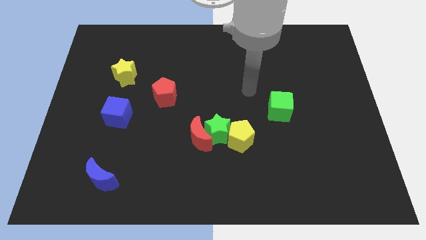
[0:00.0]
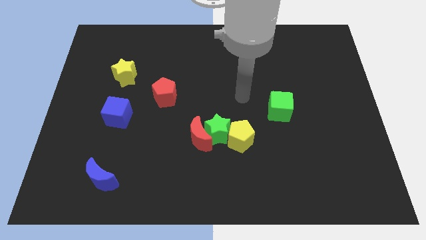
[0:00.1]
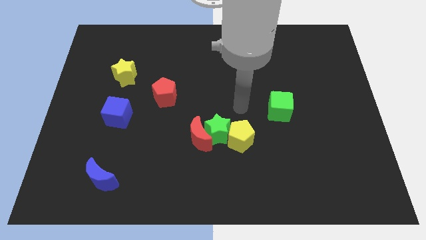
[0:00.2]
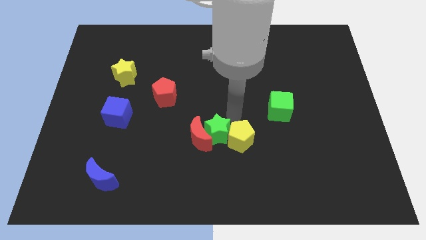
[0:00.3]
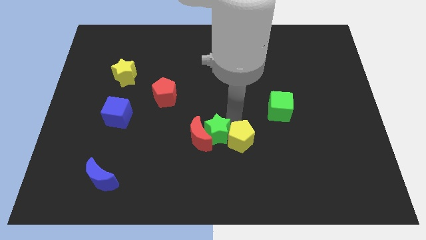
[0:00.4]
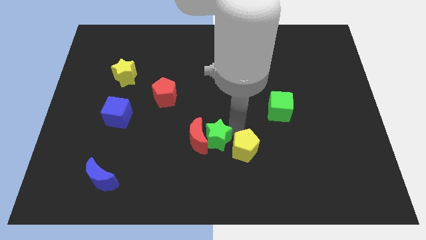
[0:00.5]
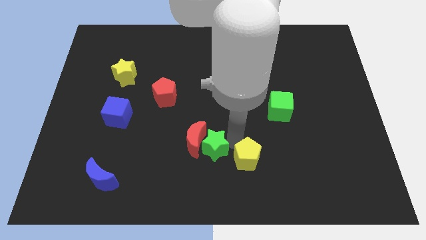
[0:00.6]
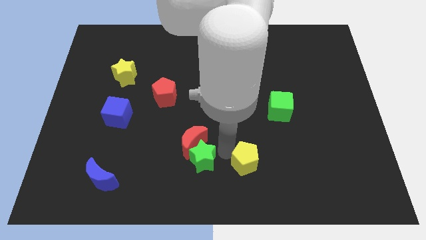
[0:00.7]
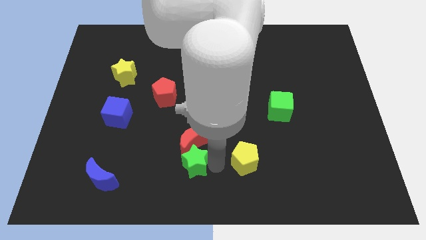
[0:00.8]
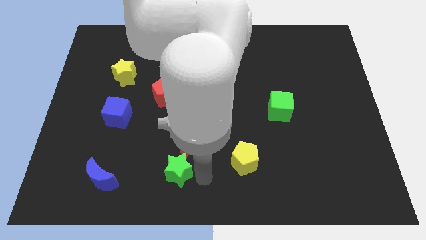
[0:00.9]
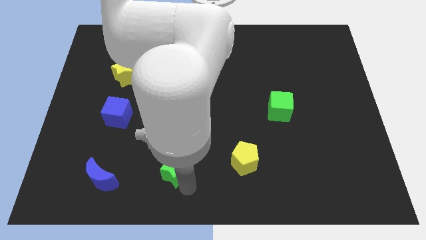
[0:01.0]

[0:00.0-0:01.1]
move the green star away from the red moon and yellow pentagon

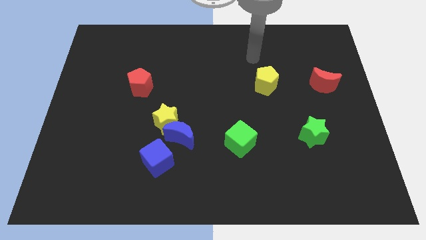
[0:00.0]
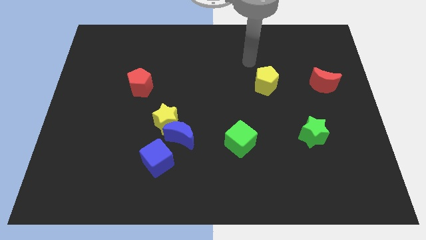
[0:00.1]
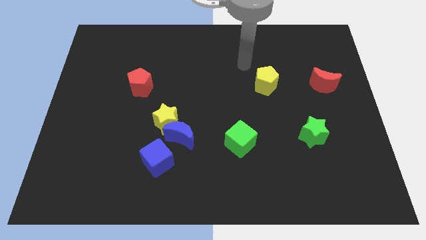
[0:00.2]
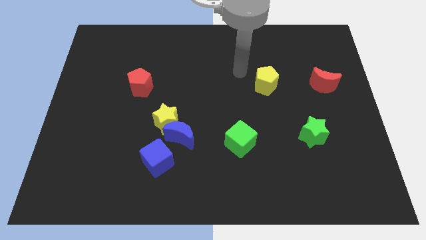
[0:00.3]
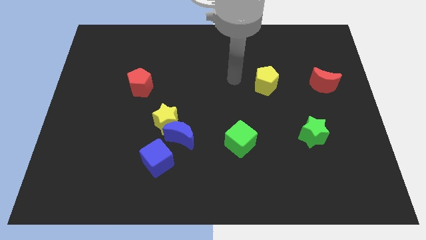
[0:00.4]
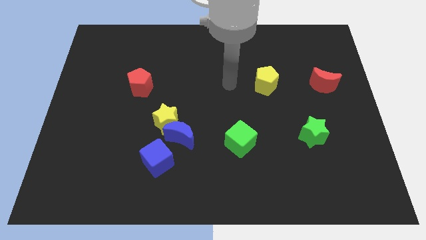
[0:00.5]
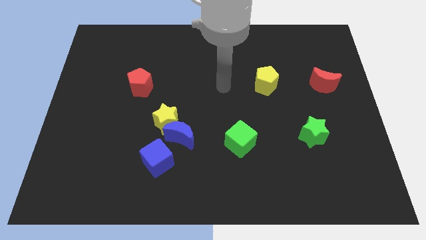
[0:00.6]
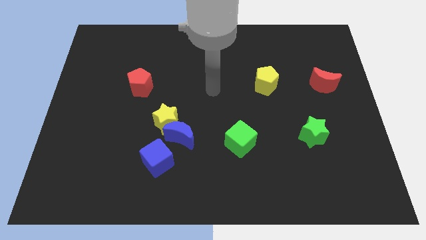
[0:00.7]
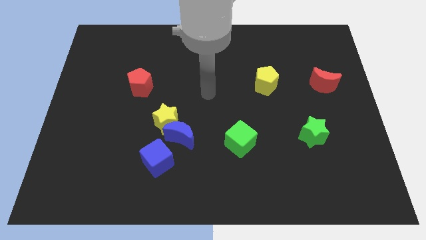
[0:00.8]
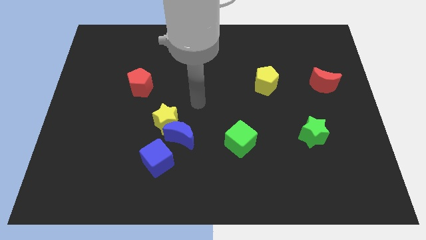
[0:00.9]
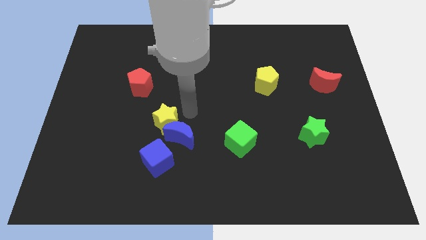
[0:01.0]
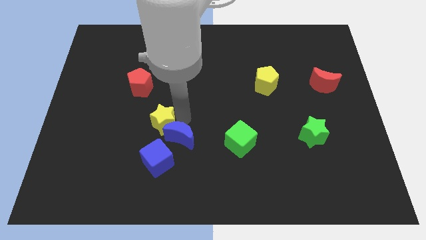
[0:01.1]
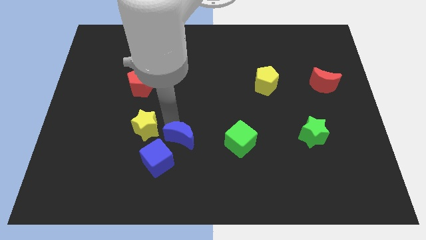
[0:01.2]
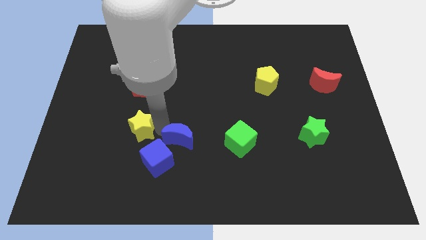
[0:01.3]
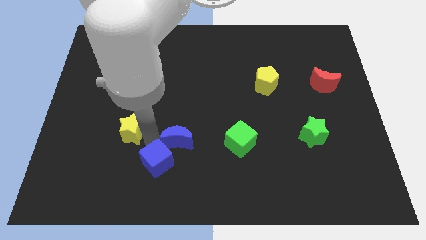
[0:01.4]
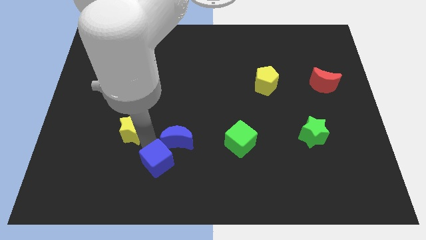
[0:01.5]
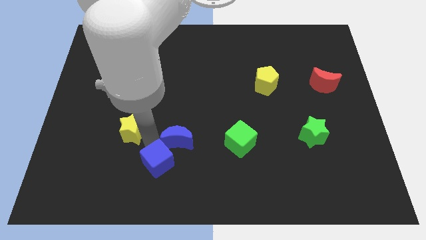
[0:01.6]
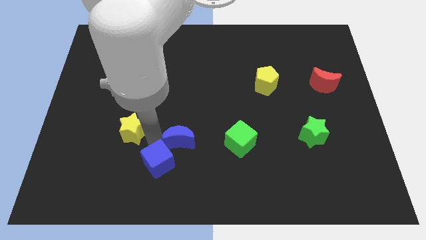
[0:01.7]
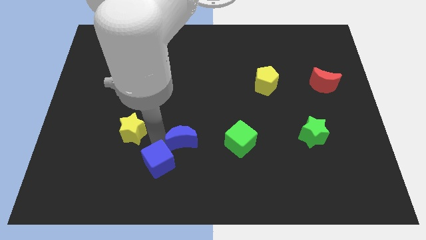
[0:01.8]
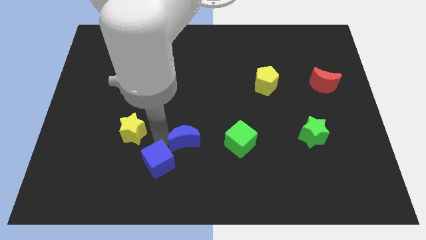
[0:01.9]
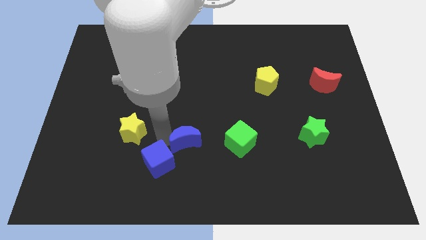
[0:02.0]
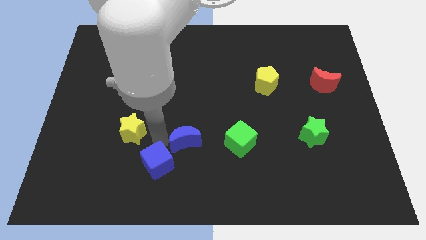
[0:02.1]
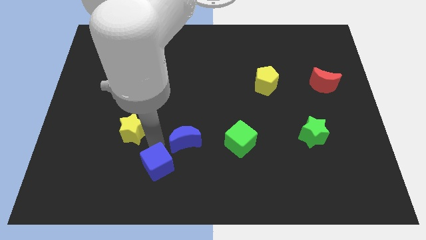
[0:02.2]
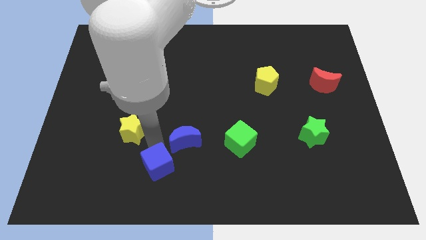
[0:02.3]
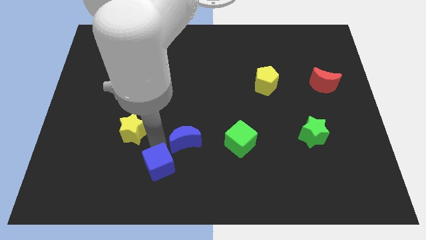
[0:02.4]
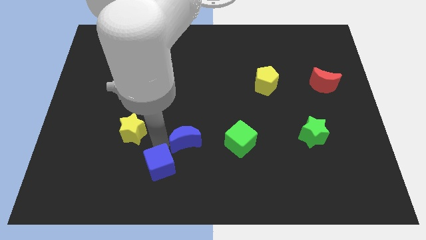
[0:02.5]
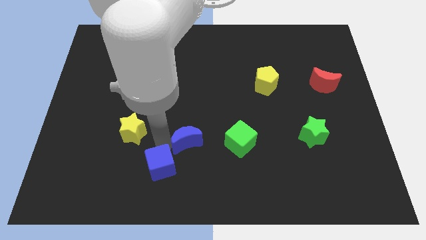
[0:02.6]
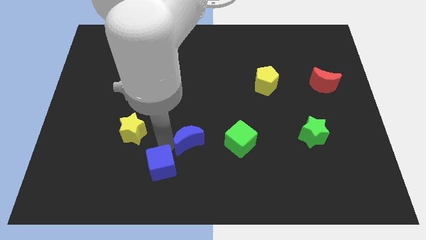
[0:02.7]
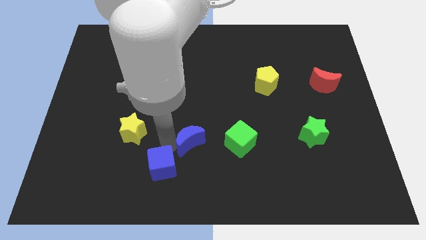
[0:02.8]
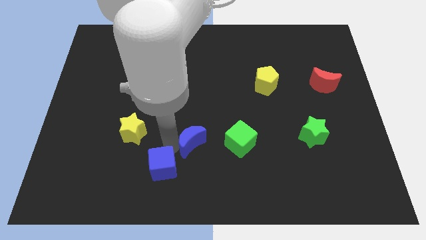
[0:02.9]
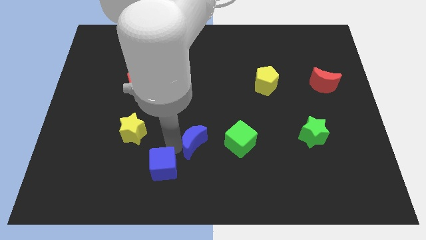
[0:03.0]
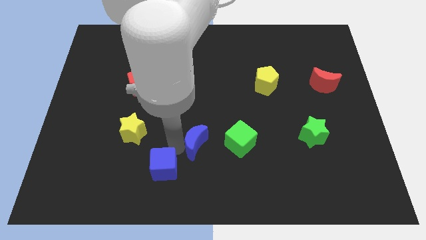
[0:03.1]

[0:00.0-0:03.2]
pull the blue moon apart from the yellow star and blue cube

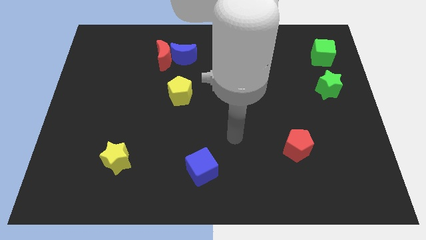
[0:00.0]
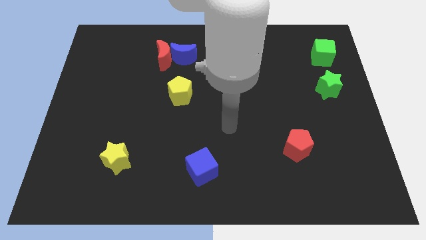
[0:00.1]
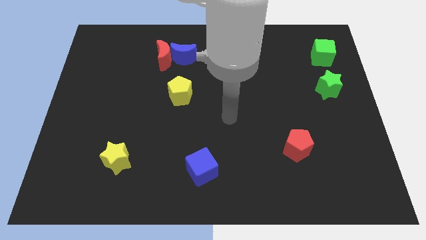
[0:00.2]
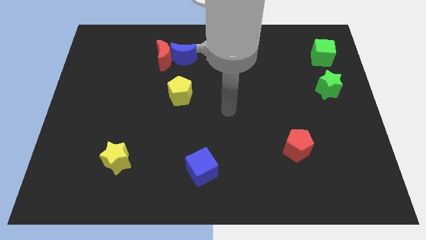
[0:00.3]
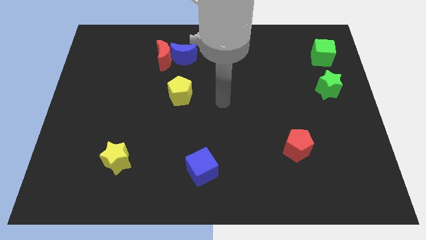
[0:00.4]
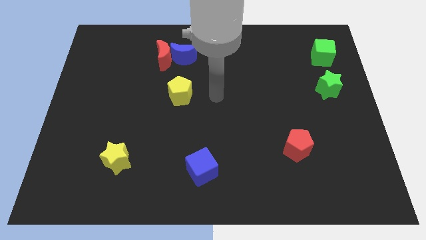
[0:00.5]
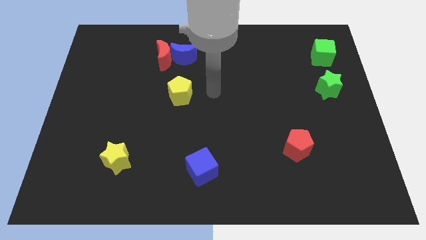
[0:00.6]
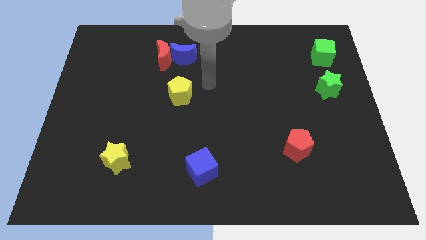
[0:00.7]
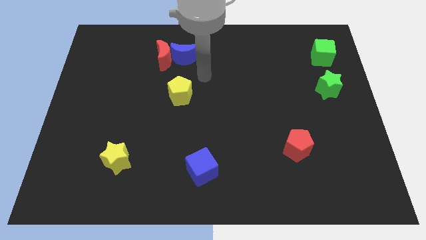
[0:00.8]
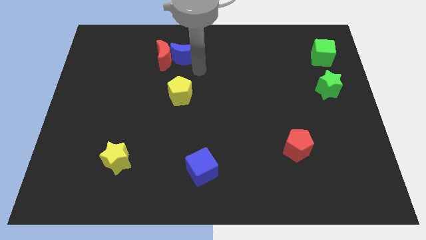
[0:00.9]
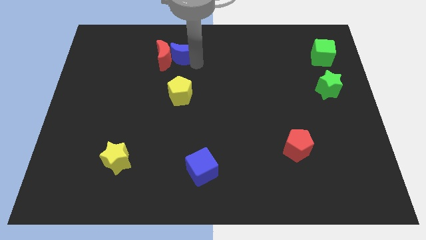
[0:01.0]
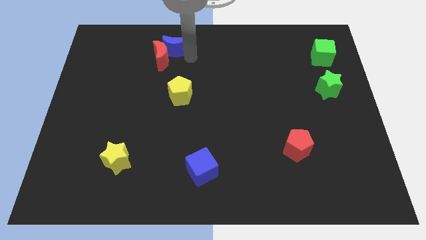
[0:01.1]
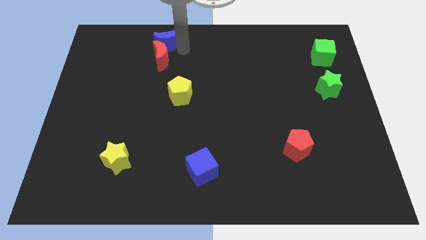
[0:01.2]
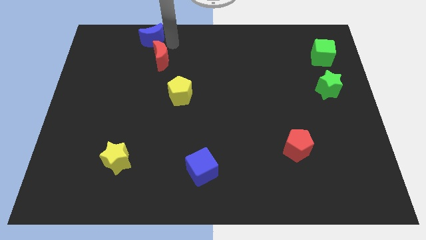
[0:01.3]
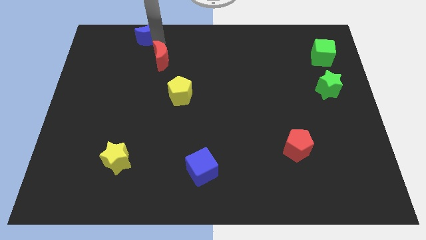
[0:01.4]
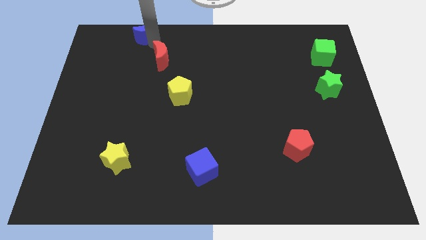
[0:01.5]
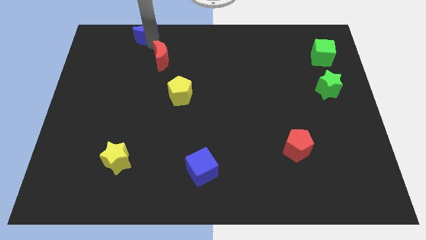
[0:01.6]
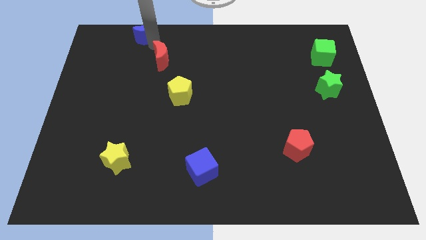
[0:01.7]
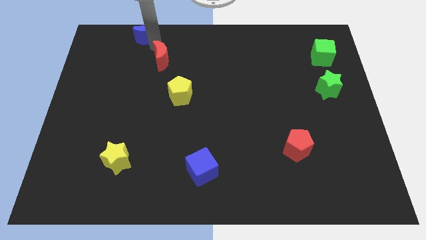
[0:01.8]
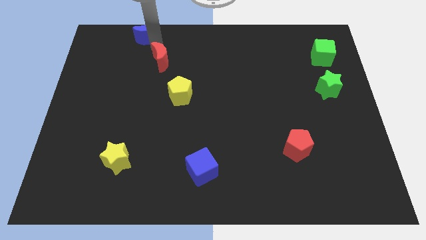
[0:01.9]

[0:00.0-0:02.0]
pull the red moon apart from the blue moon

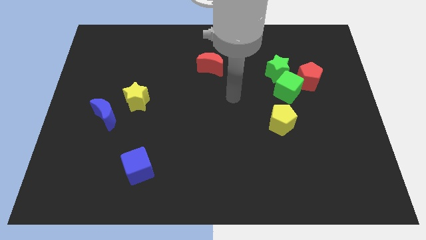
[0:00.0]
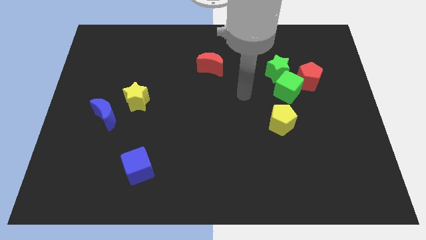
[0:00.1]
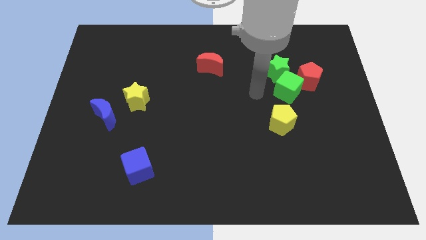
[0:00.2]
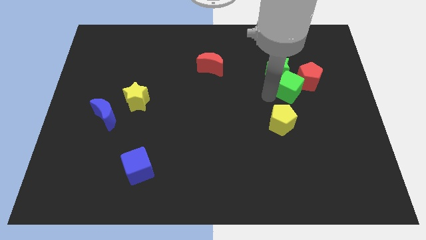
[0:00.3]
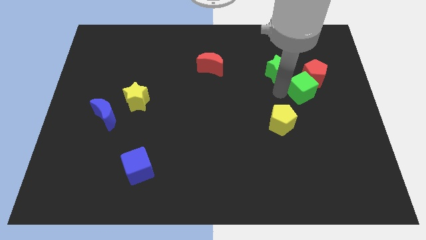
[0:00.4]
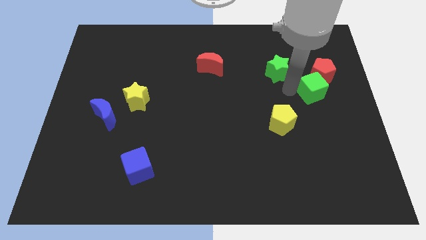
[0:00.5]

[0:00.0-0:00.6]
pull the green star apart from the green cube and red pentagon

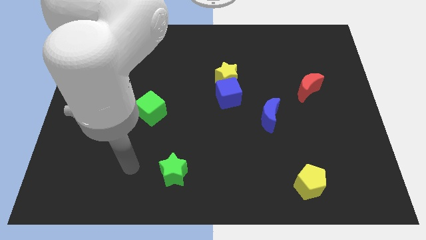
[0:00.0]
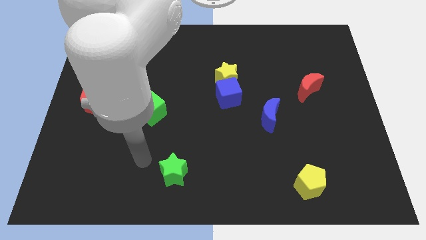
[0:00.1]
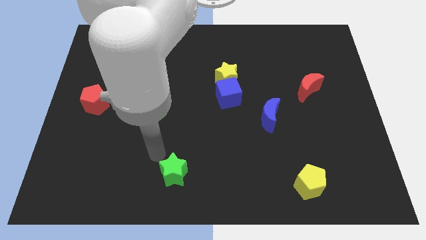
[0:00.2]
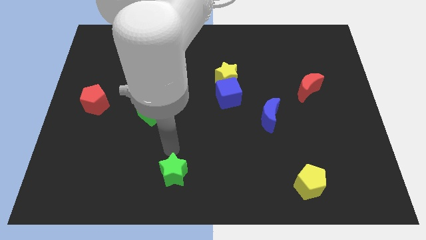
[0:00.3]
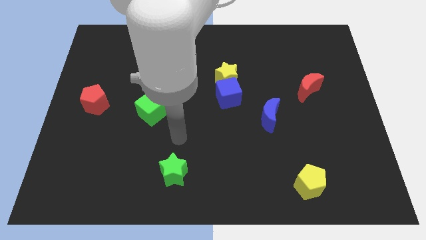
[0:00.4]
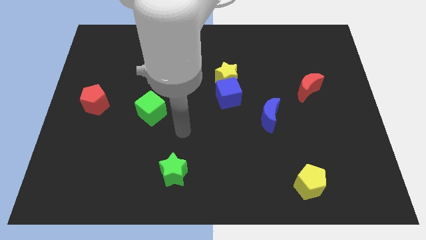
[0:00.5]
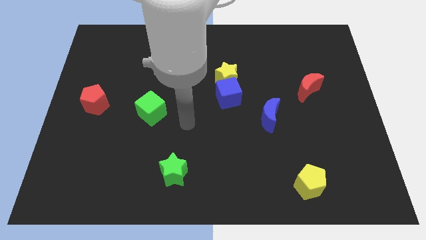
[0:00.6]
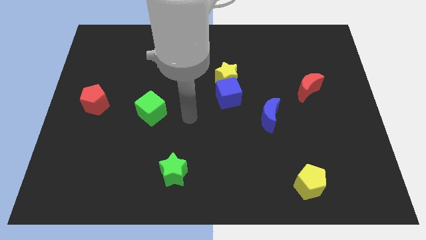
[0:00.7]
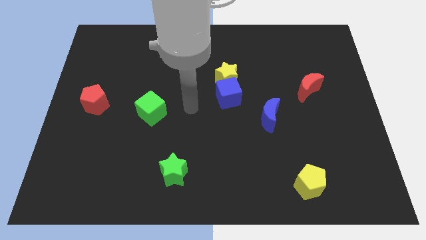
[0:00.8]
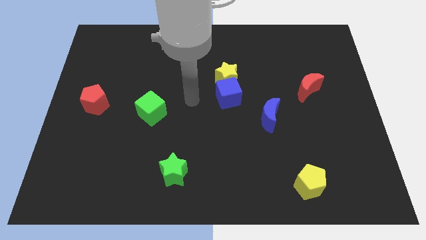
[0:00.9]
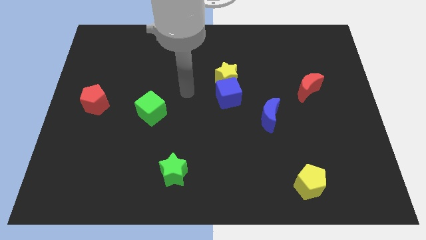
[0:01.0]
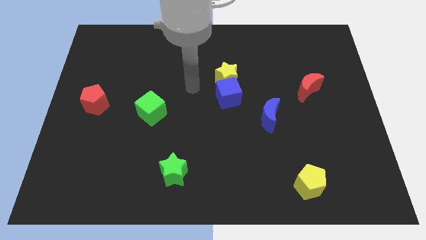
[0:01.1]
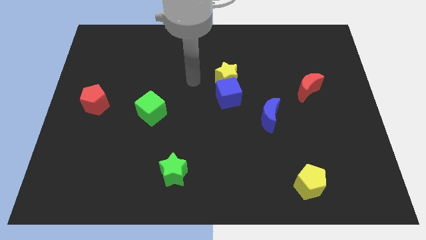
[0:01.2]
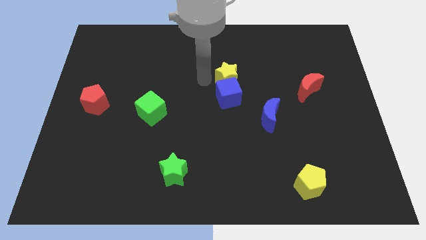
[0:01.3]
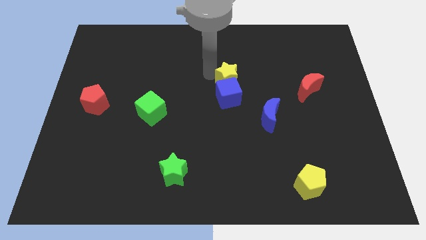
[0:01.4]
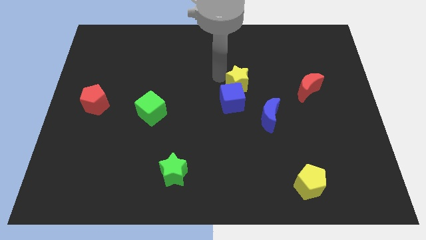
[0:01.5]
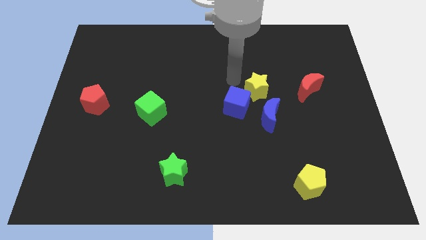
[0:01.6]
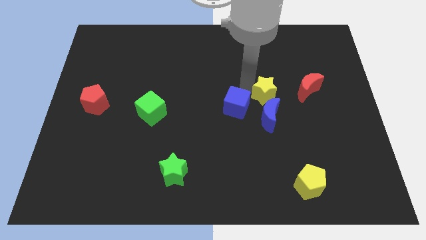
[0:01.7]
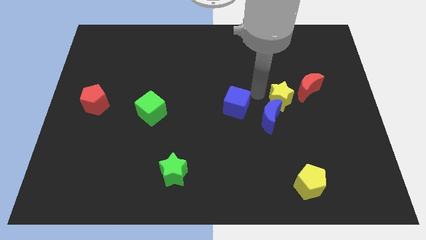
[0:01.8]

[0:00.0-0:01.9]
move the blue cube away from the yellow star

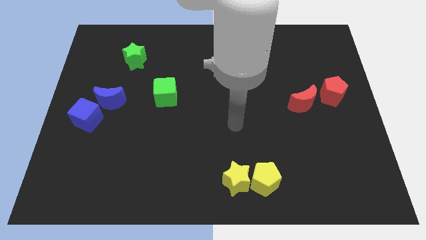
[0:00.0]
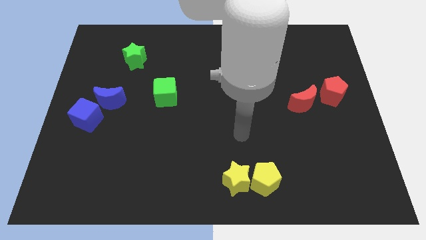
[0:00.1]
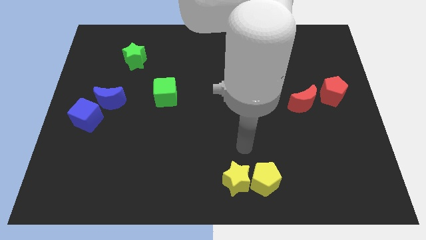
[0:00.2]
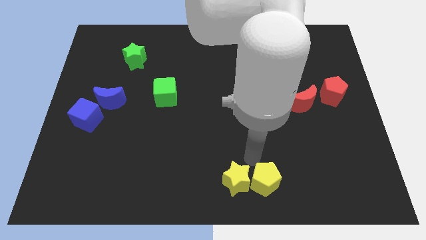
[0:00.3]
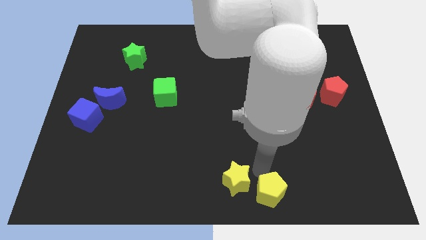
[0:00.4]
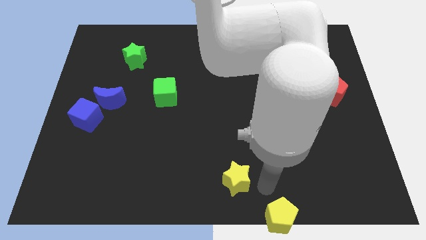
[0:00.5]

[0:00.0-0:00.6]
move the yellow star away from the yellow pentagon
